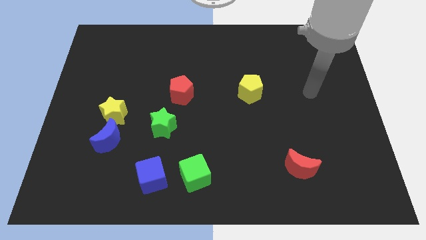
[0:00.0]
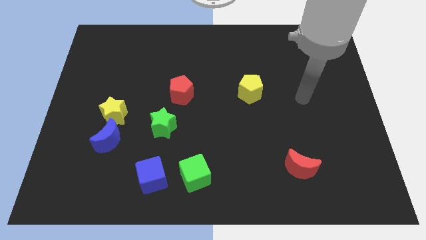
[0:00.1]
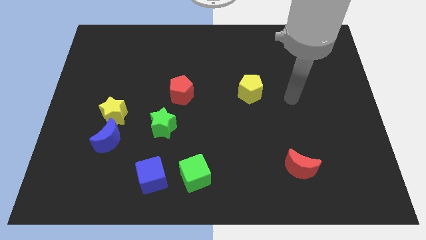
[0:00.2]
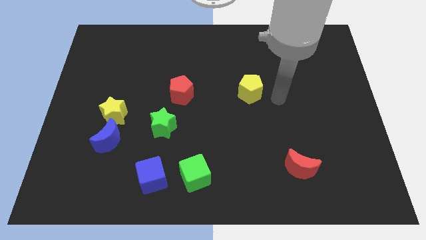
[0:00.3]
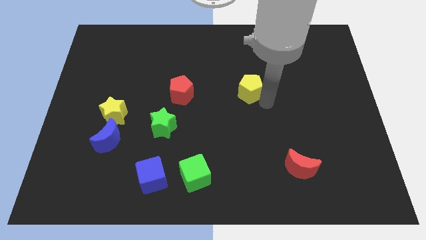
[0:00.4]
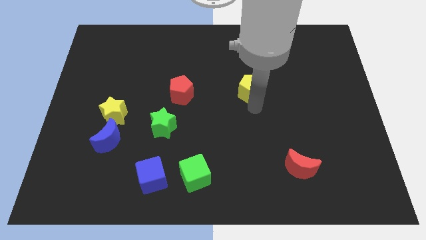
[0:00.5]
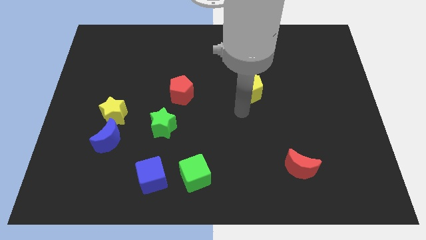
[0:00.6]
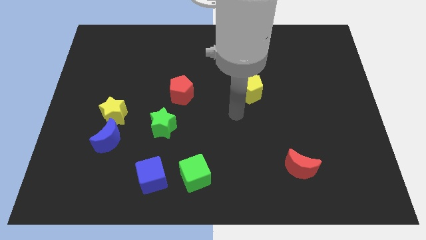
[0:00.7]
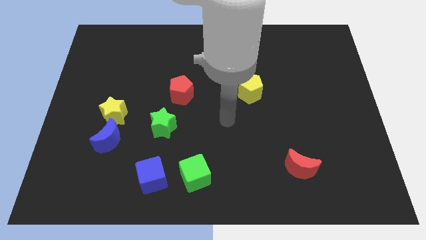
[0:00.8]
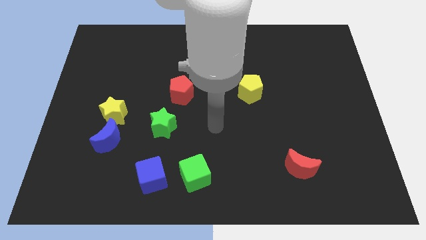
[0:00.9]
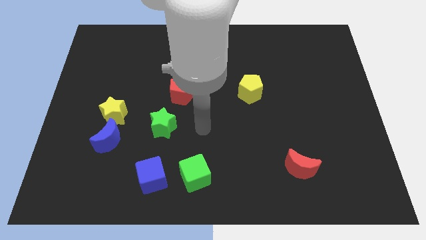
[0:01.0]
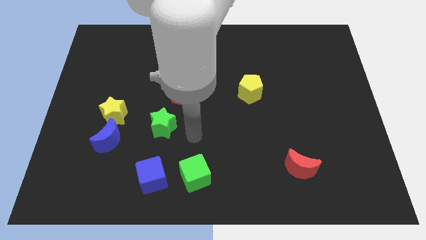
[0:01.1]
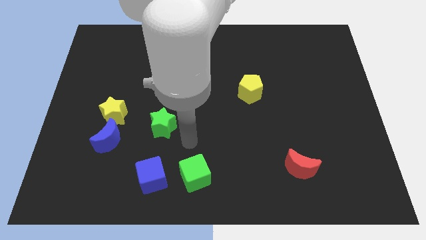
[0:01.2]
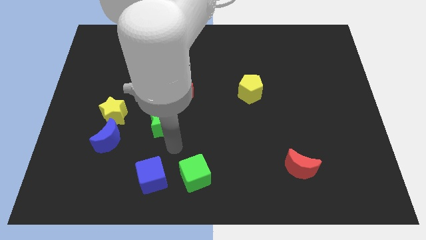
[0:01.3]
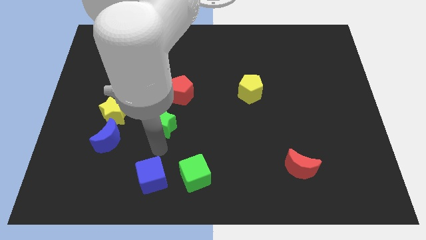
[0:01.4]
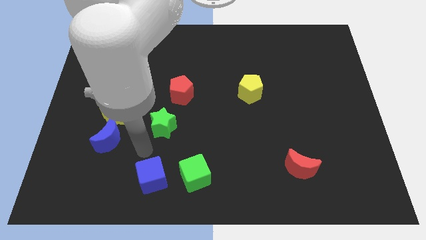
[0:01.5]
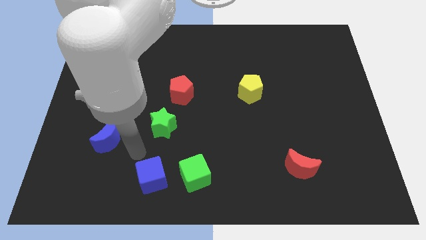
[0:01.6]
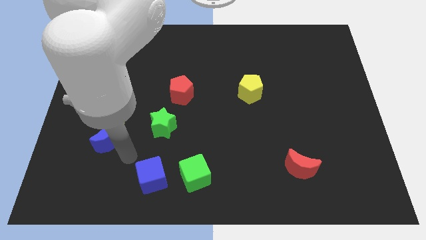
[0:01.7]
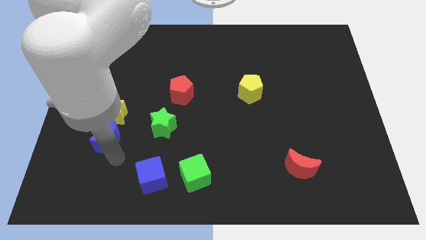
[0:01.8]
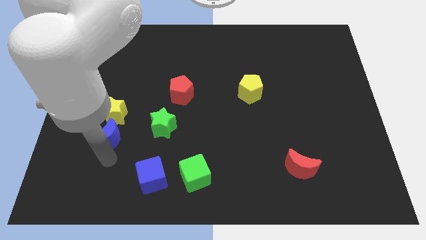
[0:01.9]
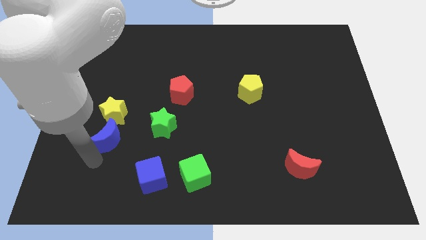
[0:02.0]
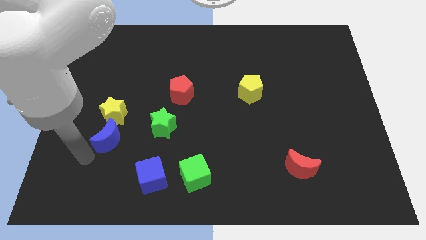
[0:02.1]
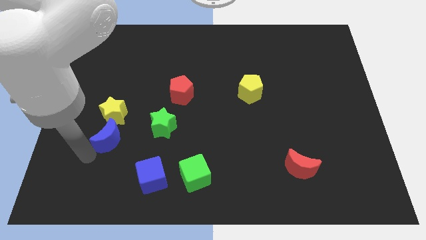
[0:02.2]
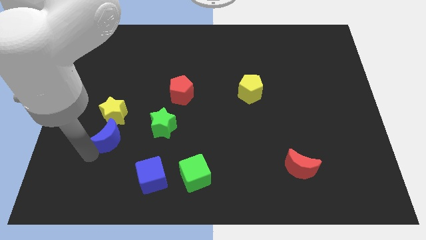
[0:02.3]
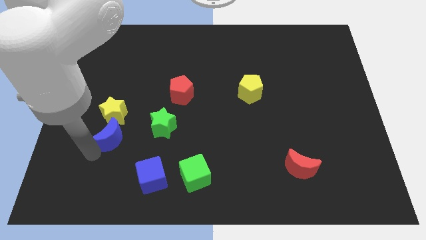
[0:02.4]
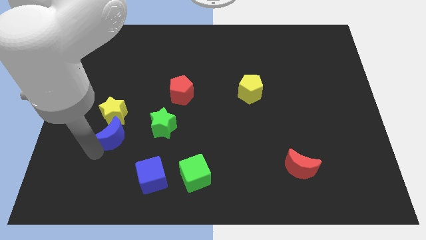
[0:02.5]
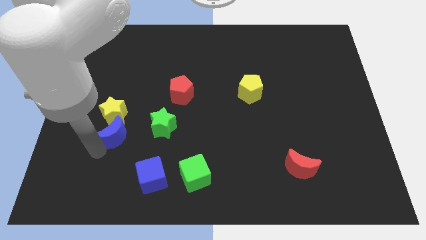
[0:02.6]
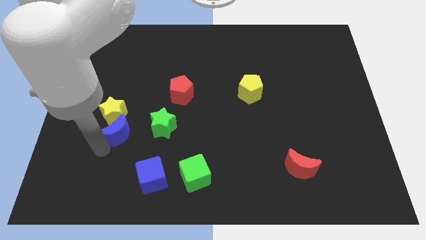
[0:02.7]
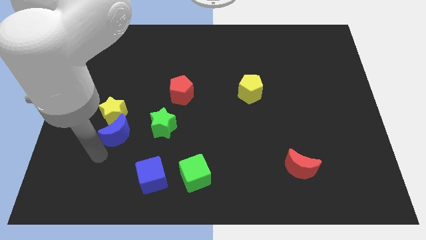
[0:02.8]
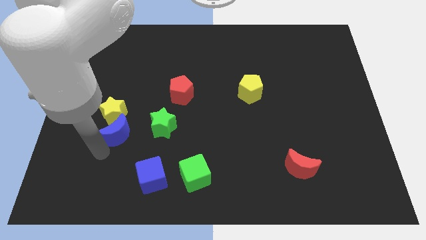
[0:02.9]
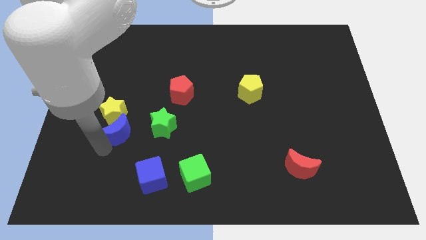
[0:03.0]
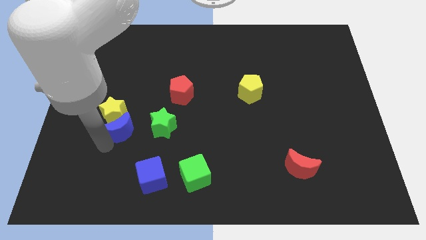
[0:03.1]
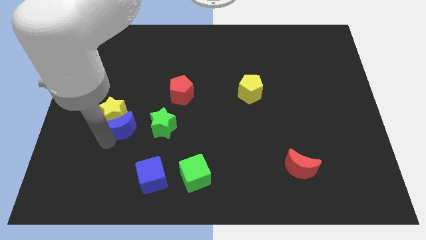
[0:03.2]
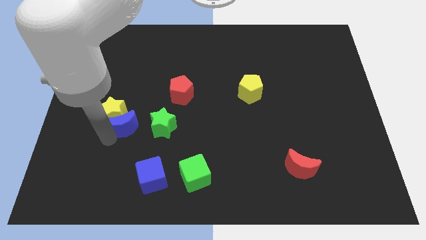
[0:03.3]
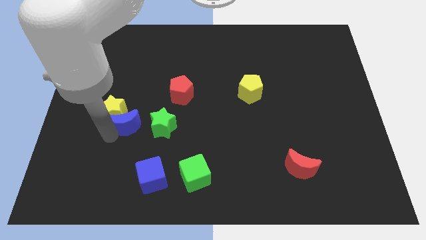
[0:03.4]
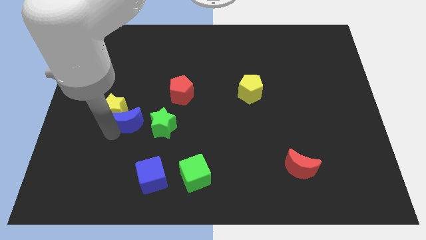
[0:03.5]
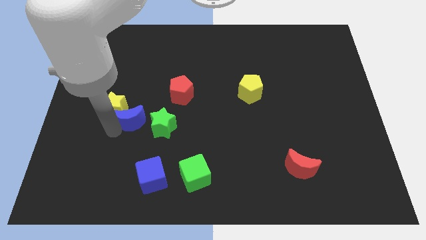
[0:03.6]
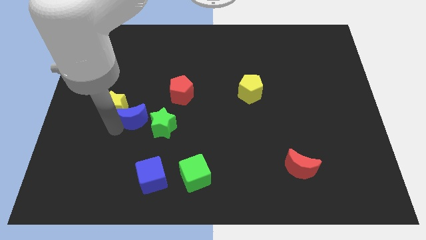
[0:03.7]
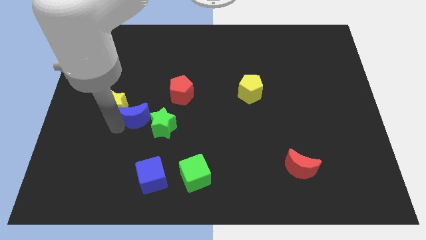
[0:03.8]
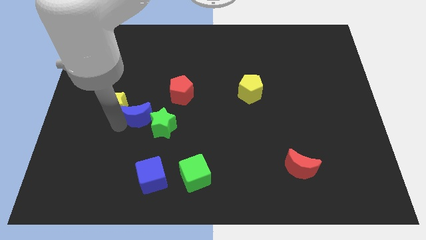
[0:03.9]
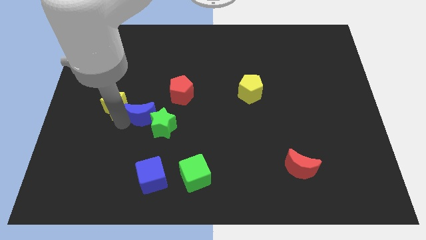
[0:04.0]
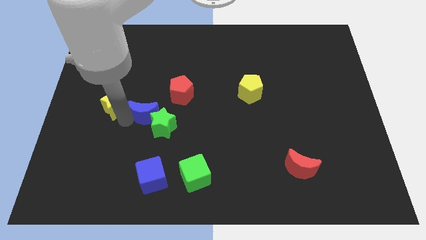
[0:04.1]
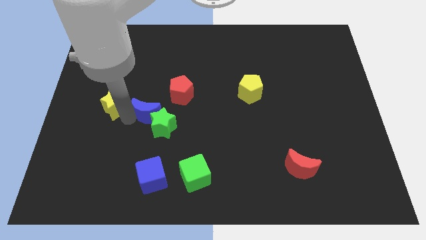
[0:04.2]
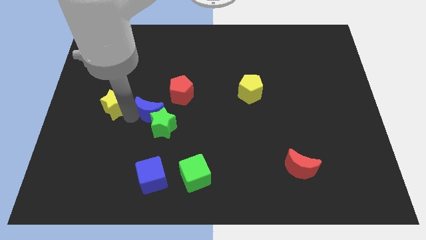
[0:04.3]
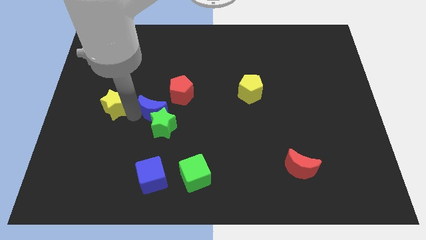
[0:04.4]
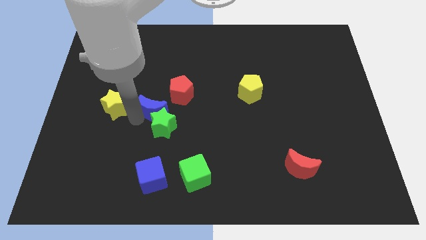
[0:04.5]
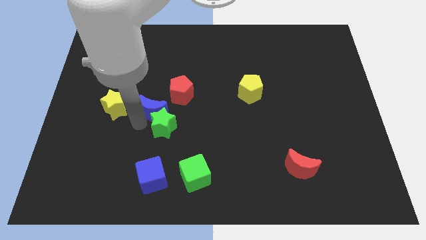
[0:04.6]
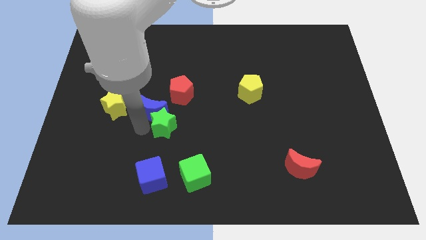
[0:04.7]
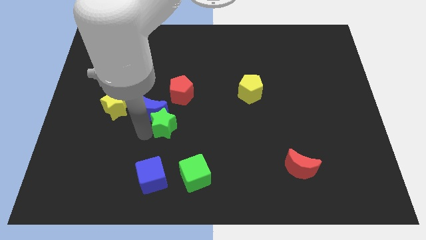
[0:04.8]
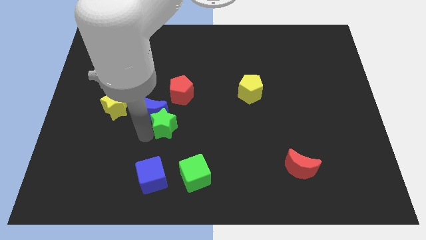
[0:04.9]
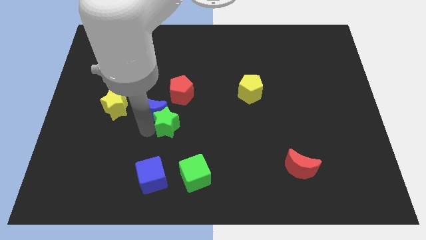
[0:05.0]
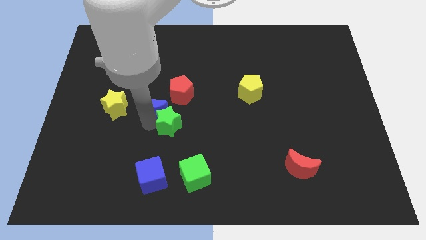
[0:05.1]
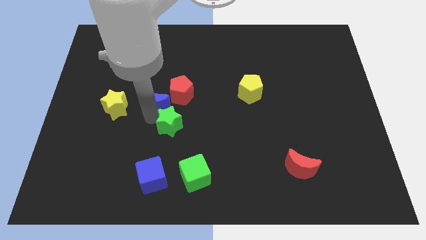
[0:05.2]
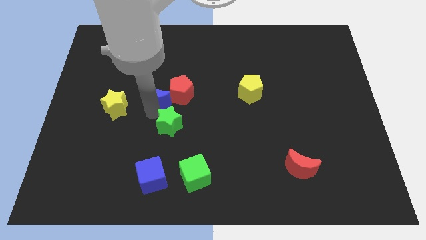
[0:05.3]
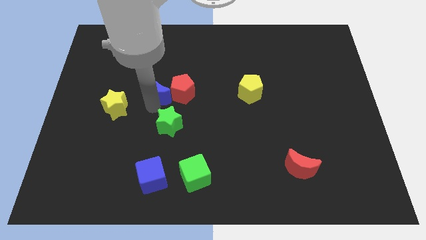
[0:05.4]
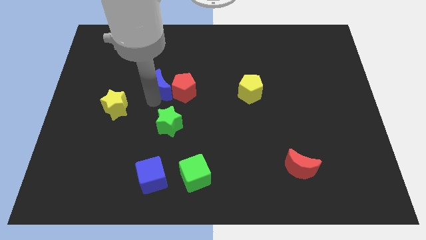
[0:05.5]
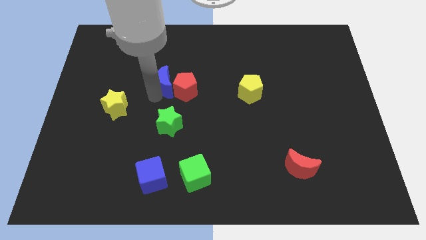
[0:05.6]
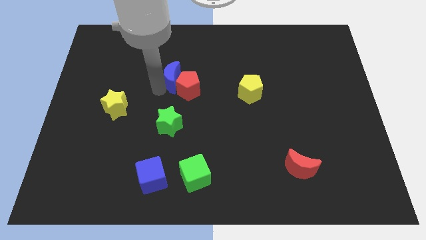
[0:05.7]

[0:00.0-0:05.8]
move the blue moon upwards and right

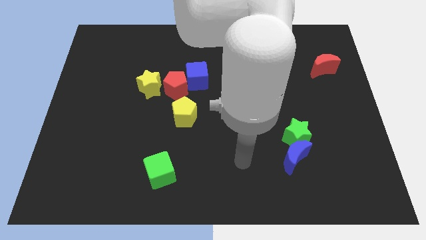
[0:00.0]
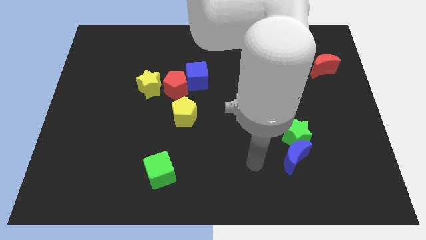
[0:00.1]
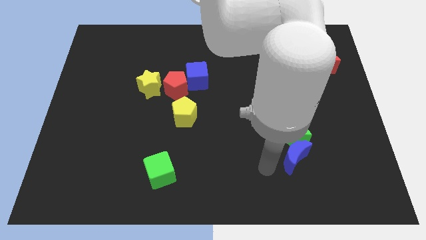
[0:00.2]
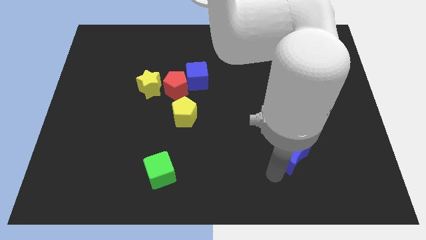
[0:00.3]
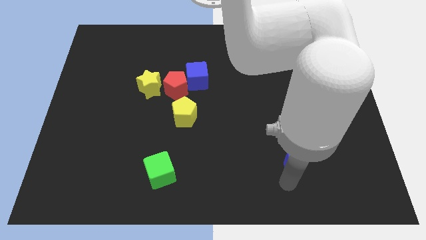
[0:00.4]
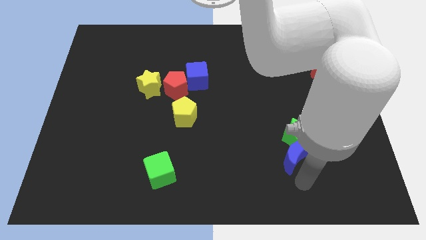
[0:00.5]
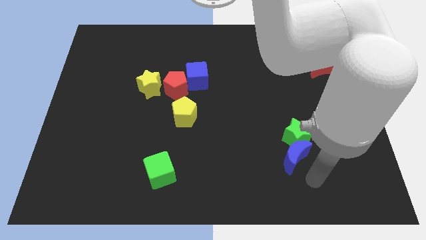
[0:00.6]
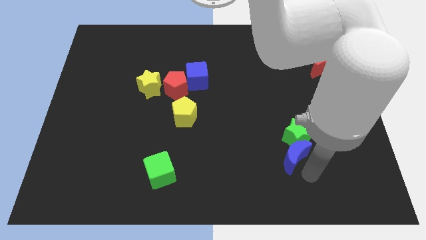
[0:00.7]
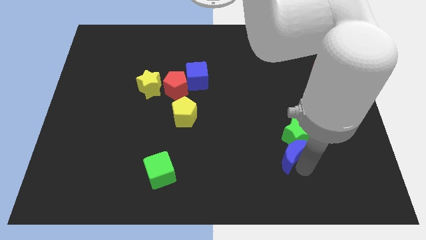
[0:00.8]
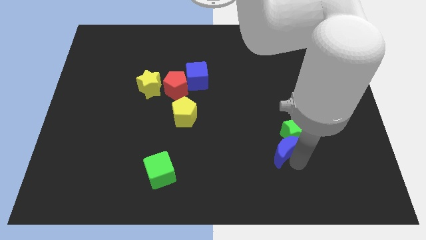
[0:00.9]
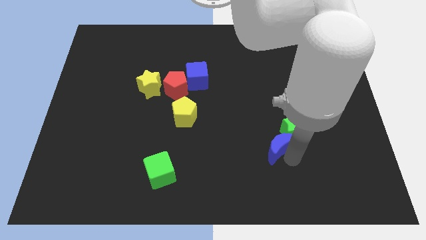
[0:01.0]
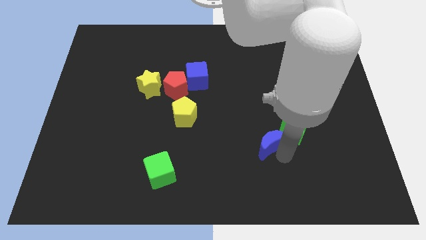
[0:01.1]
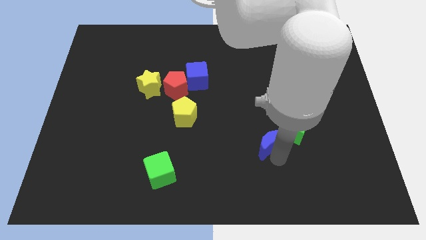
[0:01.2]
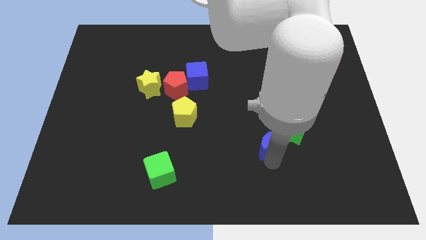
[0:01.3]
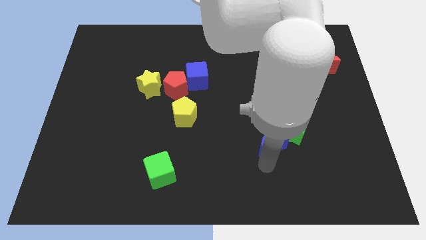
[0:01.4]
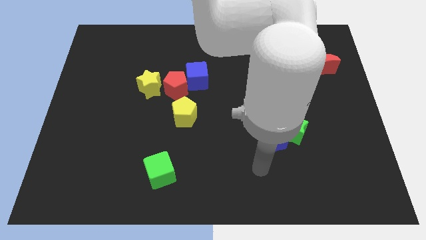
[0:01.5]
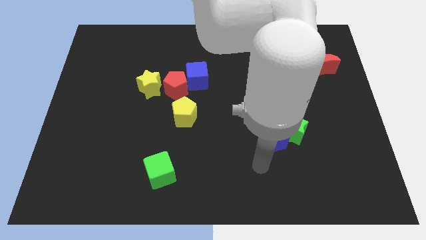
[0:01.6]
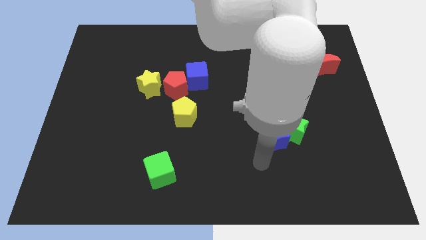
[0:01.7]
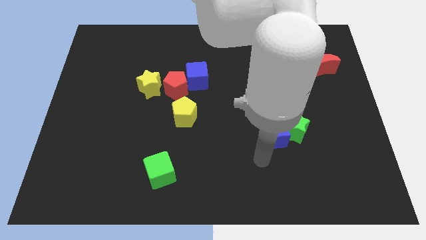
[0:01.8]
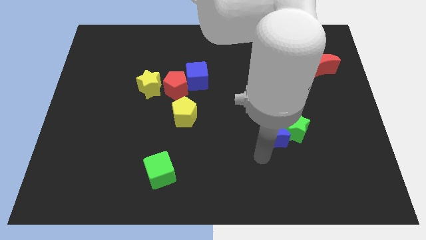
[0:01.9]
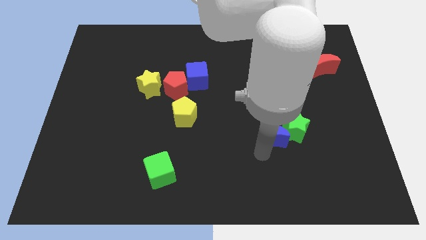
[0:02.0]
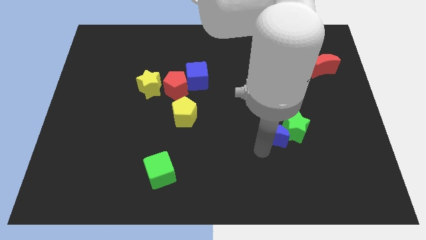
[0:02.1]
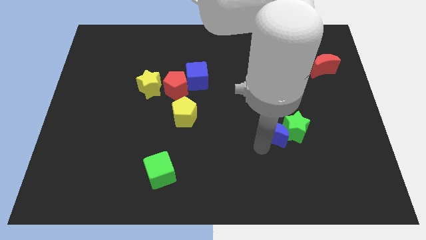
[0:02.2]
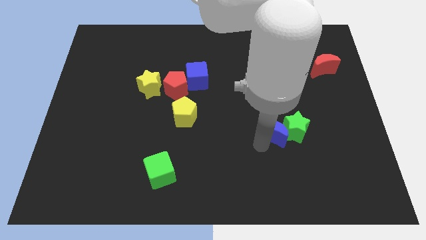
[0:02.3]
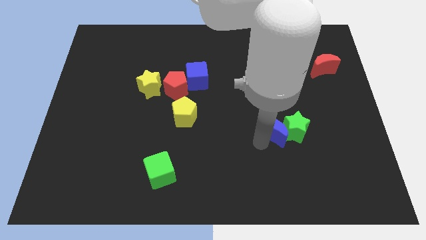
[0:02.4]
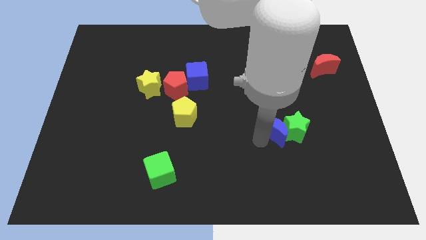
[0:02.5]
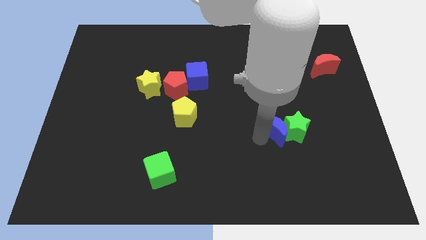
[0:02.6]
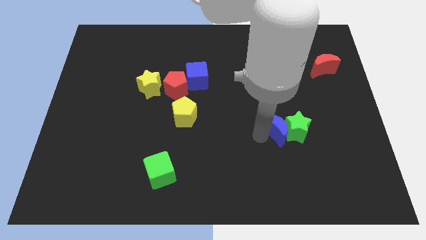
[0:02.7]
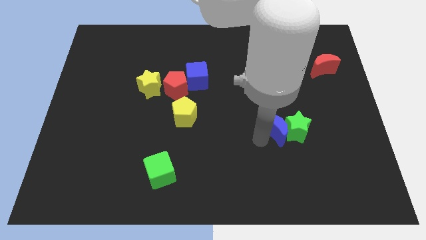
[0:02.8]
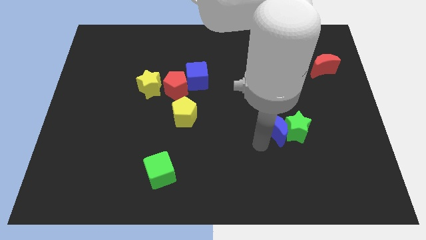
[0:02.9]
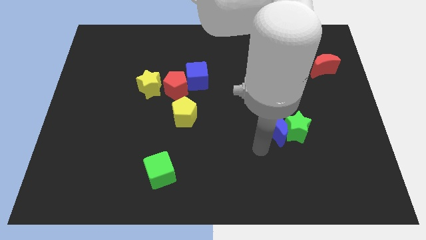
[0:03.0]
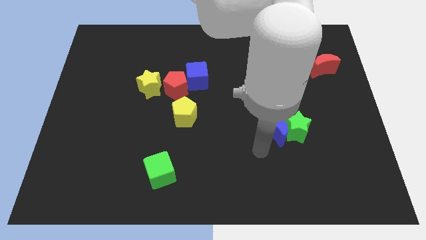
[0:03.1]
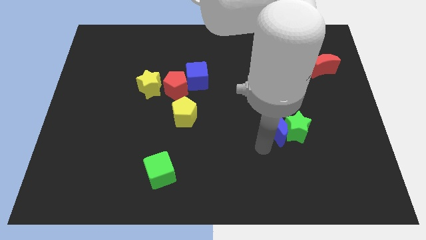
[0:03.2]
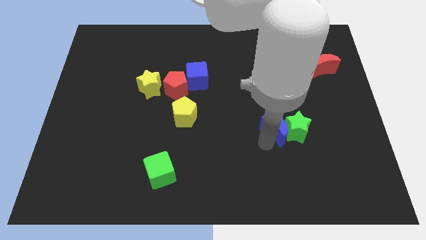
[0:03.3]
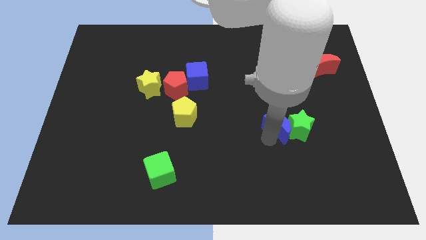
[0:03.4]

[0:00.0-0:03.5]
push the blue moon somewhat up
